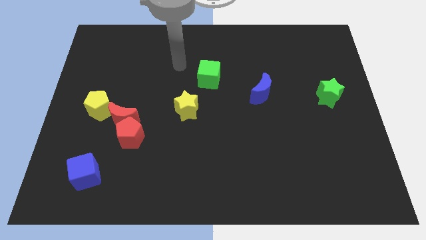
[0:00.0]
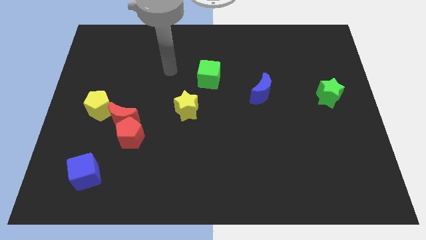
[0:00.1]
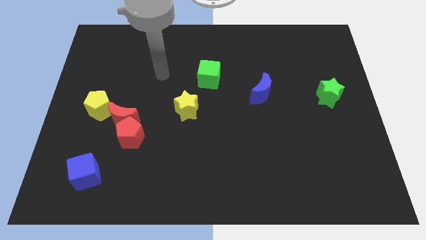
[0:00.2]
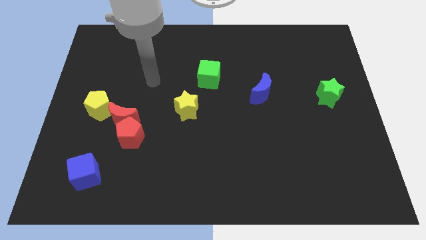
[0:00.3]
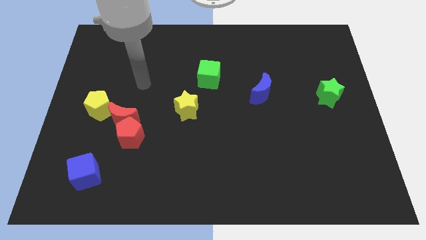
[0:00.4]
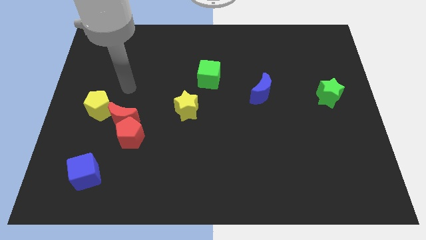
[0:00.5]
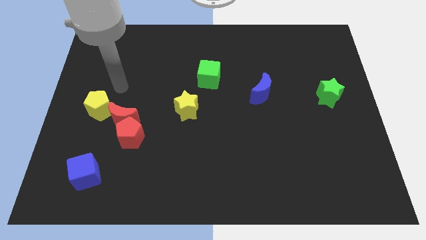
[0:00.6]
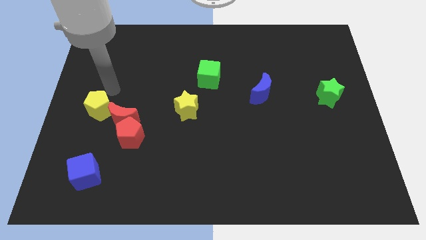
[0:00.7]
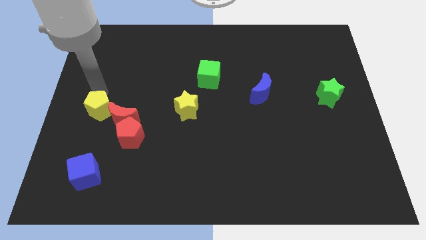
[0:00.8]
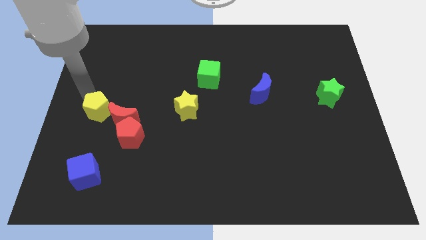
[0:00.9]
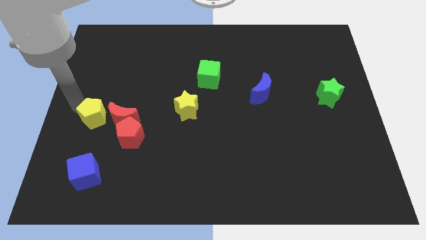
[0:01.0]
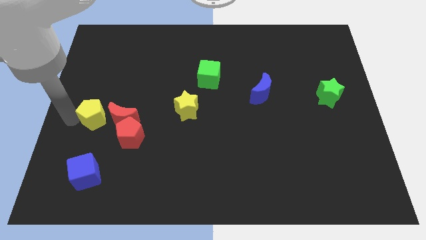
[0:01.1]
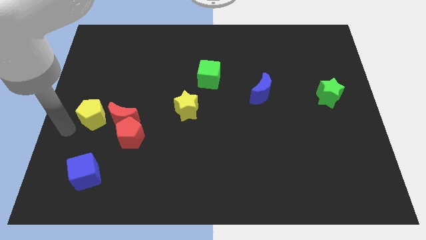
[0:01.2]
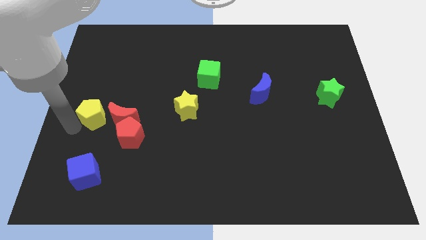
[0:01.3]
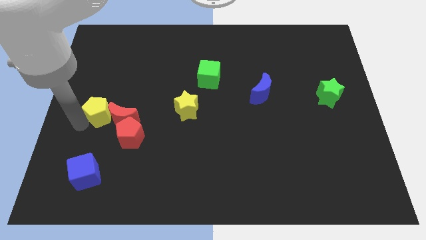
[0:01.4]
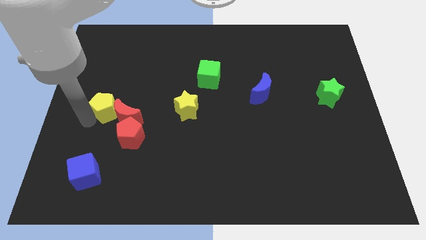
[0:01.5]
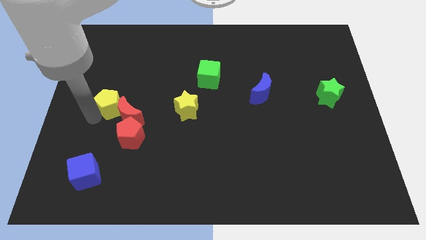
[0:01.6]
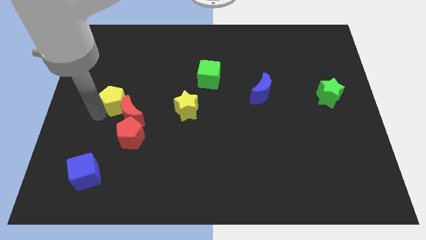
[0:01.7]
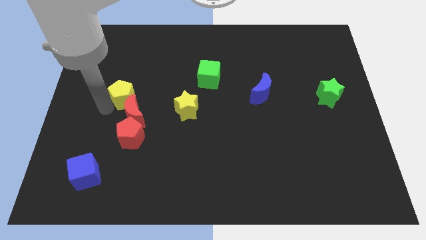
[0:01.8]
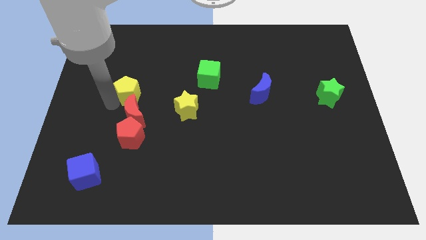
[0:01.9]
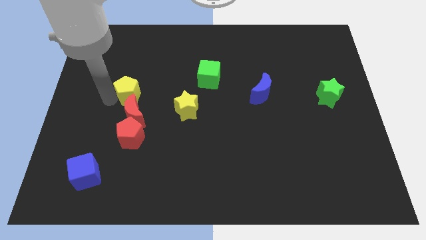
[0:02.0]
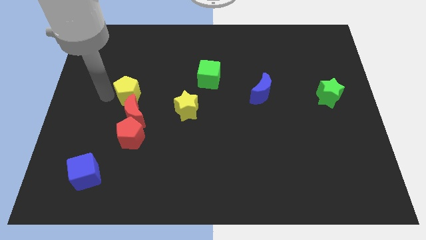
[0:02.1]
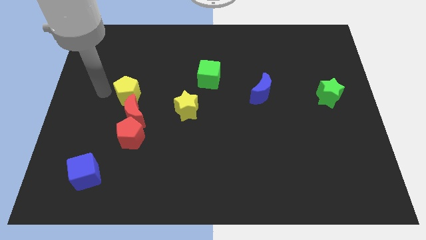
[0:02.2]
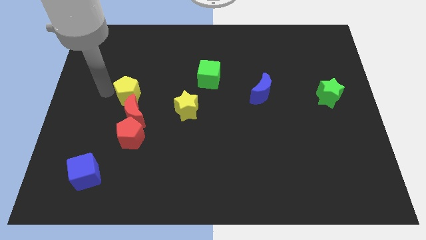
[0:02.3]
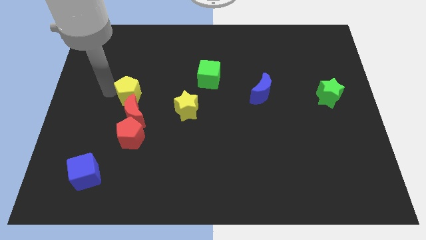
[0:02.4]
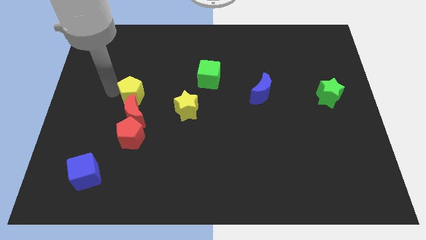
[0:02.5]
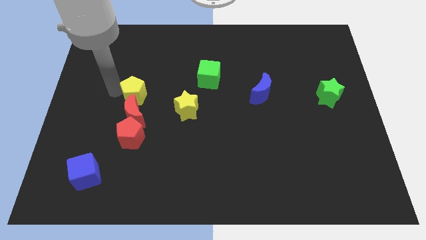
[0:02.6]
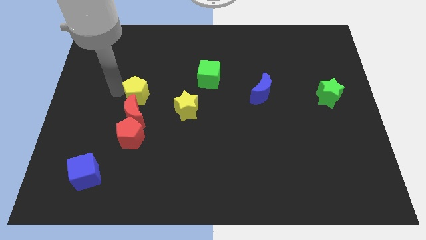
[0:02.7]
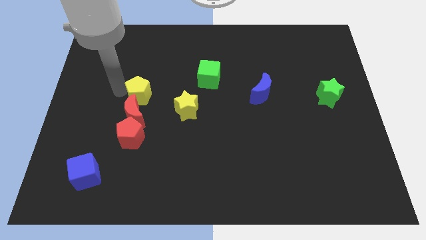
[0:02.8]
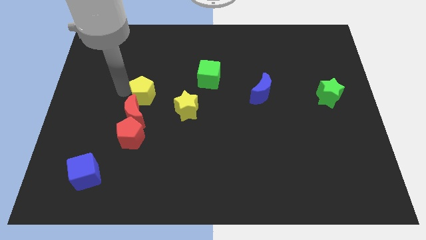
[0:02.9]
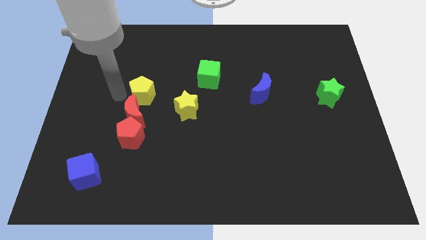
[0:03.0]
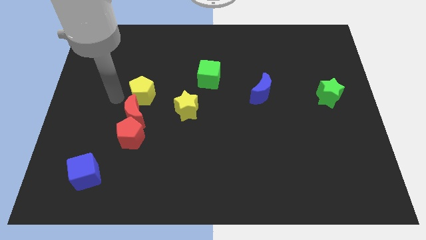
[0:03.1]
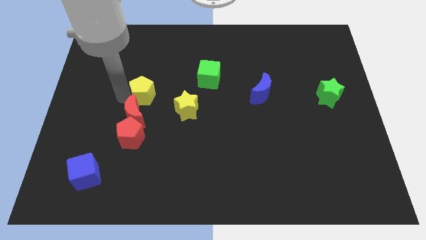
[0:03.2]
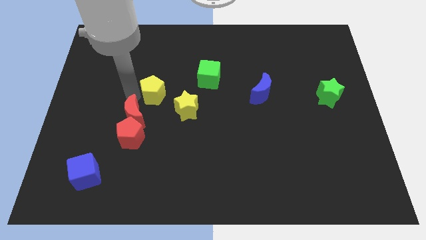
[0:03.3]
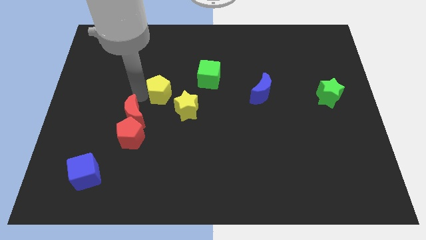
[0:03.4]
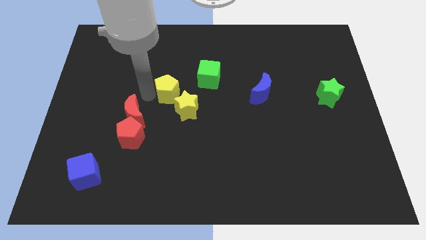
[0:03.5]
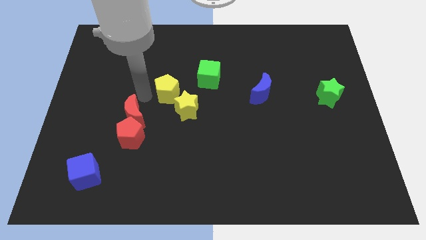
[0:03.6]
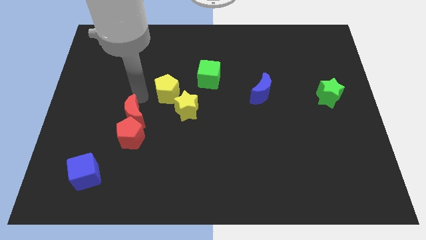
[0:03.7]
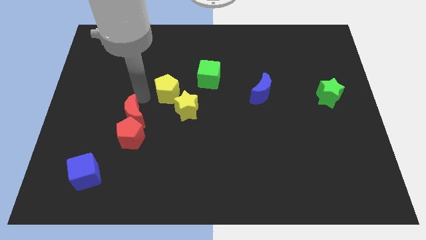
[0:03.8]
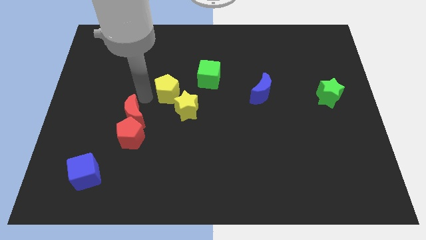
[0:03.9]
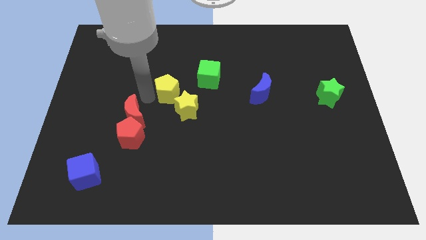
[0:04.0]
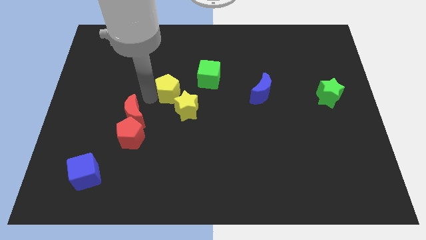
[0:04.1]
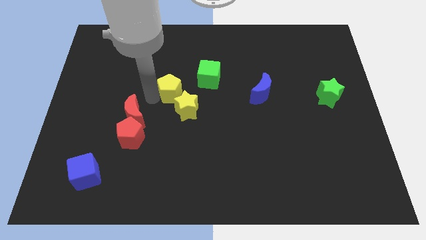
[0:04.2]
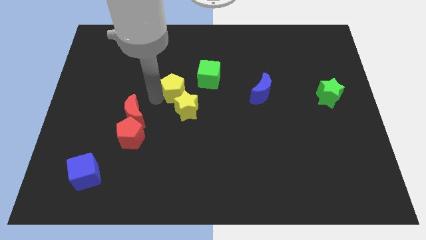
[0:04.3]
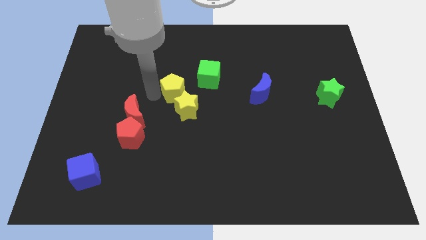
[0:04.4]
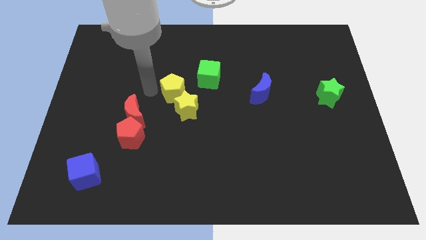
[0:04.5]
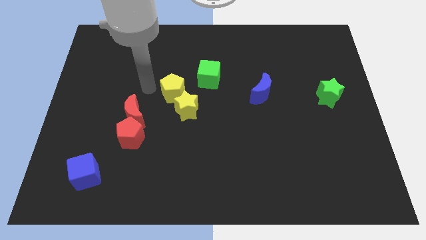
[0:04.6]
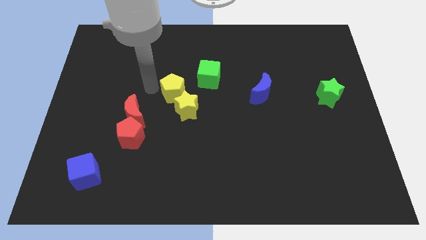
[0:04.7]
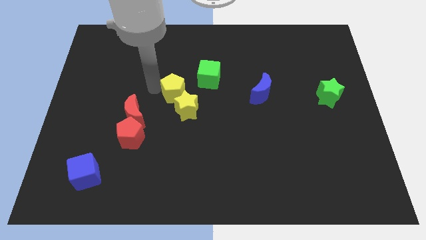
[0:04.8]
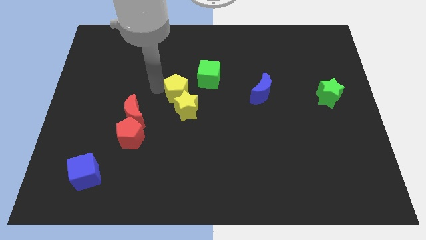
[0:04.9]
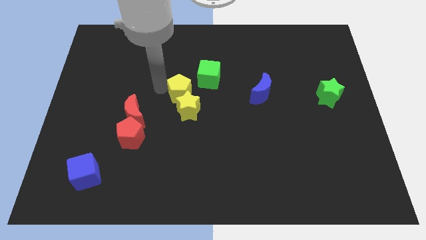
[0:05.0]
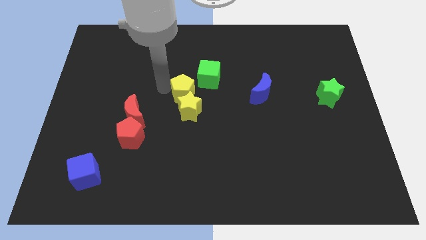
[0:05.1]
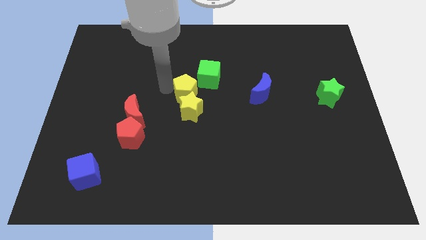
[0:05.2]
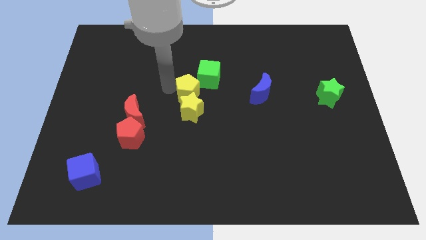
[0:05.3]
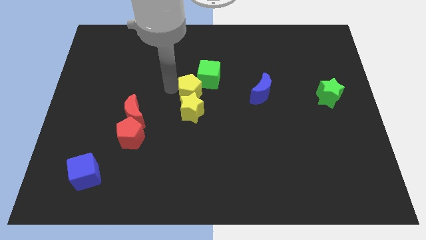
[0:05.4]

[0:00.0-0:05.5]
push the yellow pentagon to the right

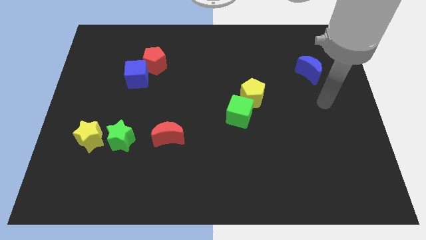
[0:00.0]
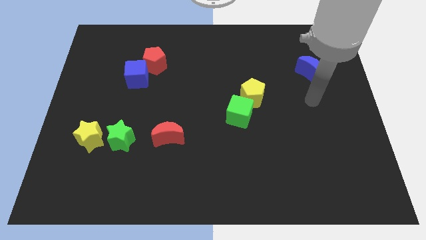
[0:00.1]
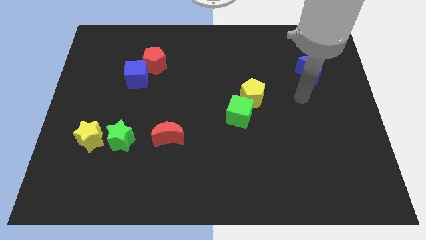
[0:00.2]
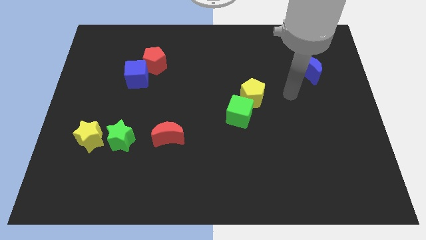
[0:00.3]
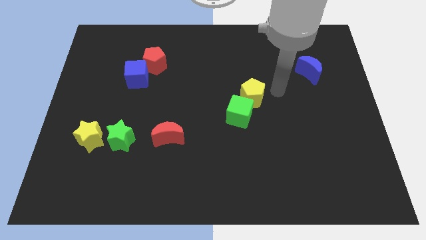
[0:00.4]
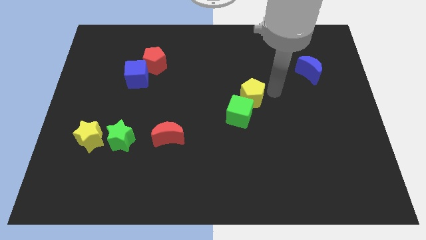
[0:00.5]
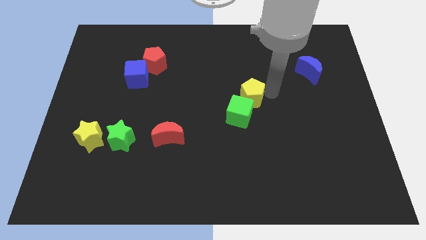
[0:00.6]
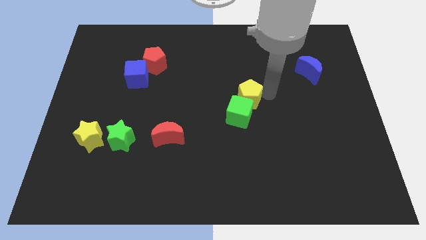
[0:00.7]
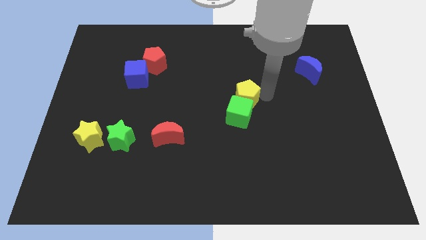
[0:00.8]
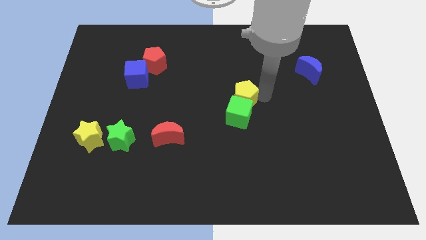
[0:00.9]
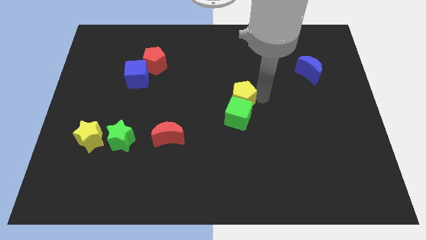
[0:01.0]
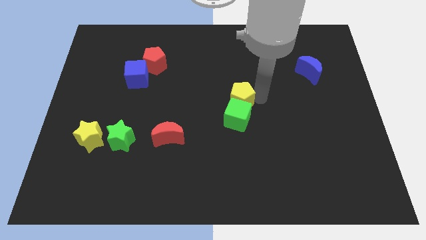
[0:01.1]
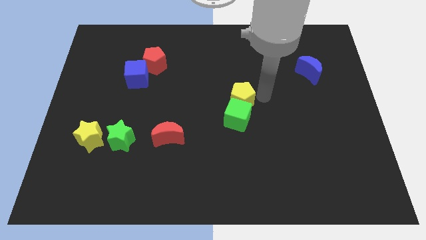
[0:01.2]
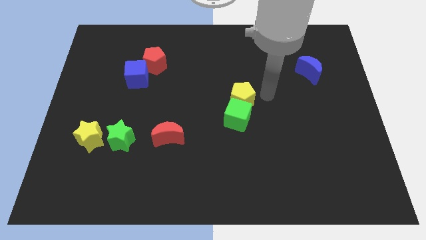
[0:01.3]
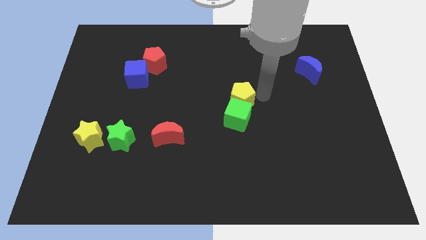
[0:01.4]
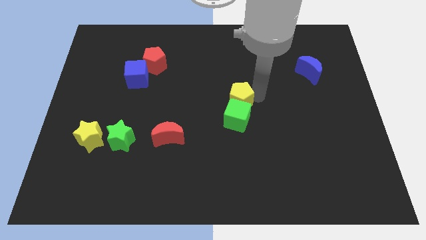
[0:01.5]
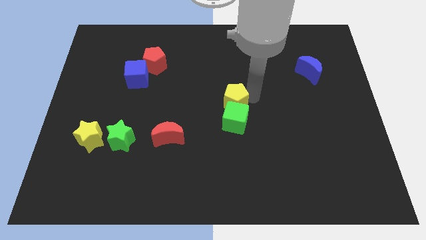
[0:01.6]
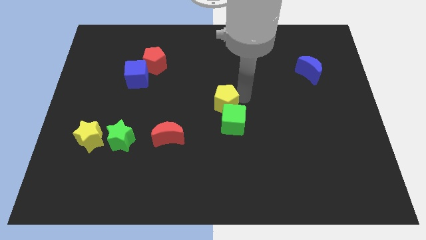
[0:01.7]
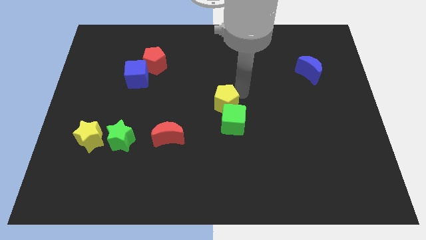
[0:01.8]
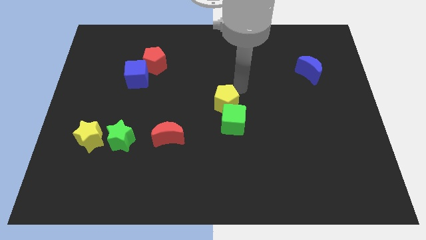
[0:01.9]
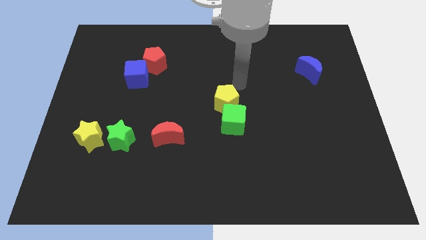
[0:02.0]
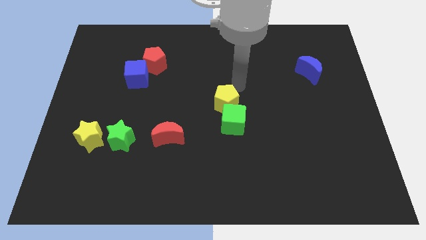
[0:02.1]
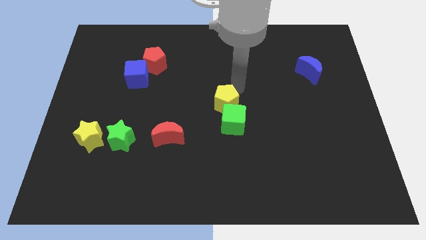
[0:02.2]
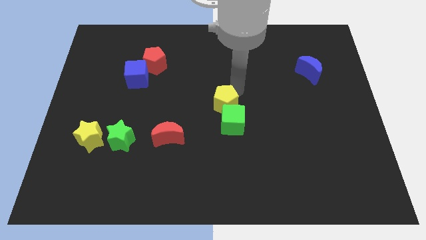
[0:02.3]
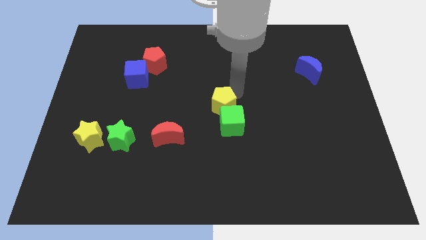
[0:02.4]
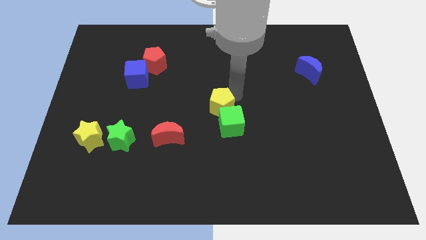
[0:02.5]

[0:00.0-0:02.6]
slightly push the yellow pentagon diagonally down and to the left

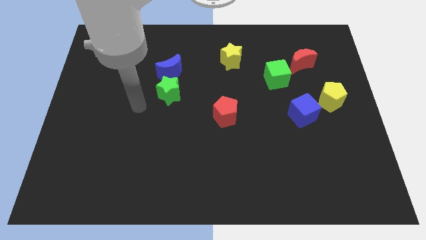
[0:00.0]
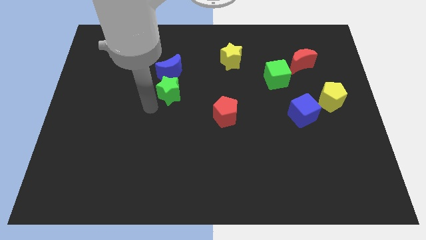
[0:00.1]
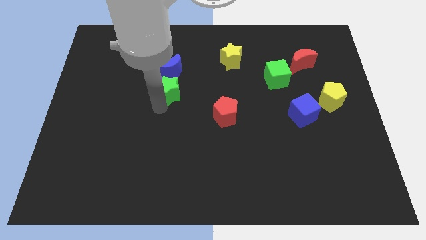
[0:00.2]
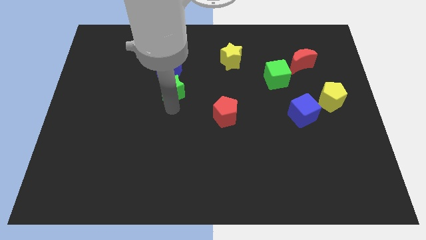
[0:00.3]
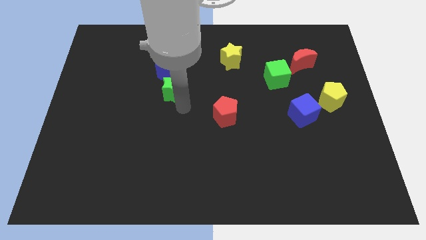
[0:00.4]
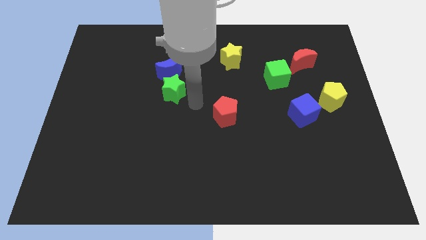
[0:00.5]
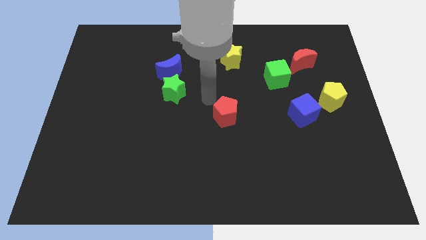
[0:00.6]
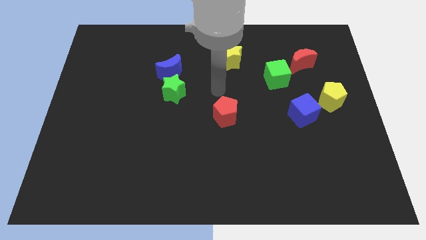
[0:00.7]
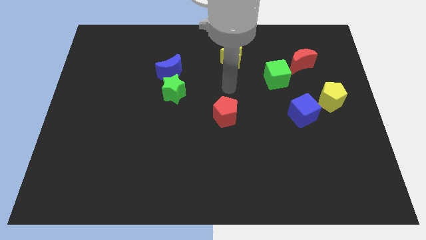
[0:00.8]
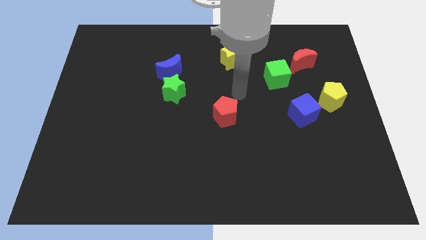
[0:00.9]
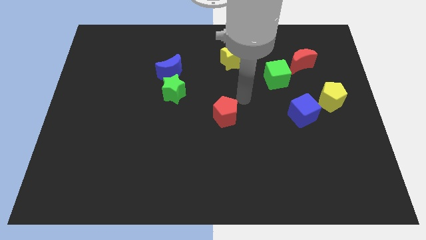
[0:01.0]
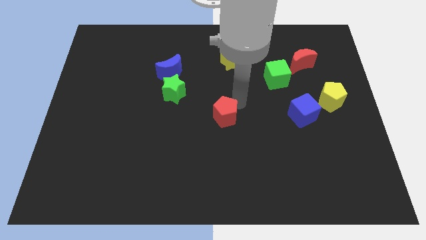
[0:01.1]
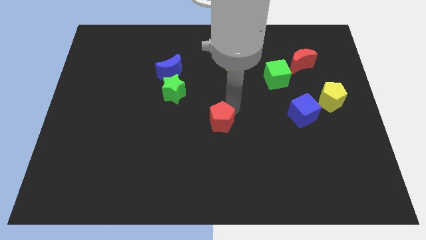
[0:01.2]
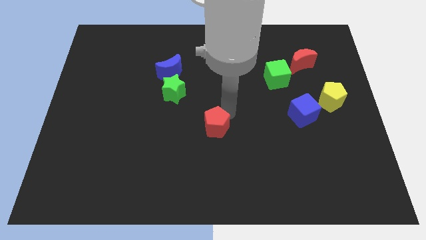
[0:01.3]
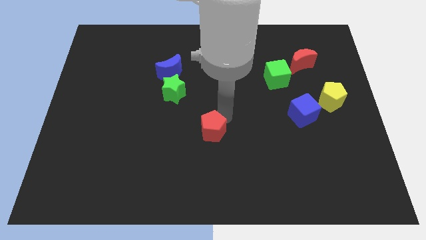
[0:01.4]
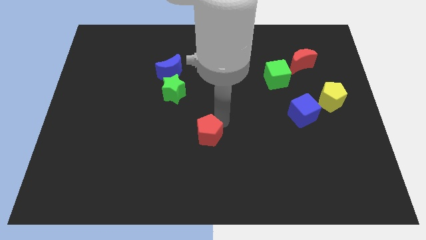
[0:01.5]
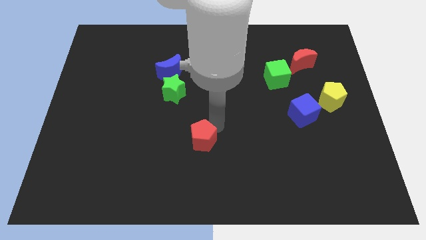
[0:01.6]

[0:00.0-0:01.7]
move the red pentagon a bit downwards and then to the left
